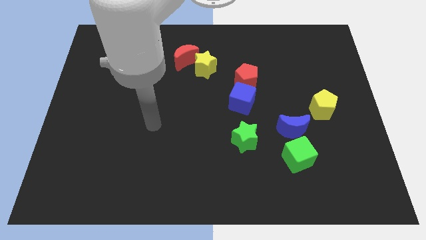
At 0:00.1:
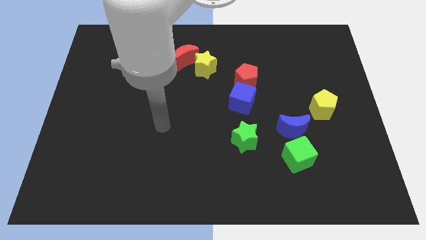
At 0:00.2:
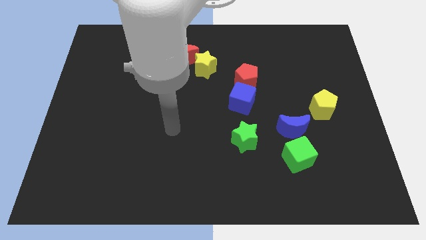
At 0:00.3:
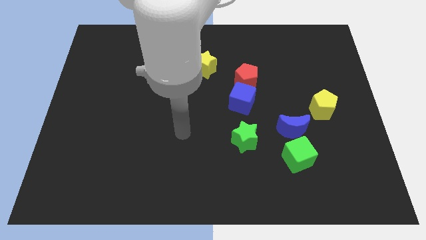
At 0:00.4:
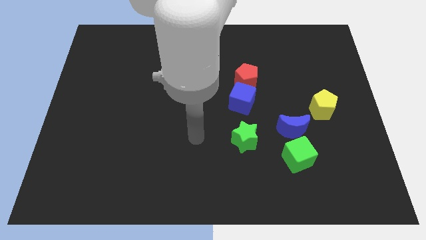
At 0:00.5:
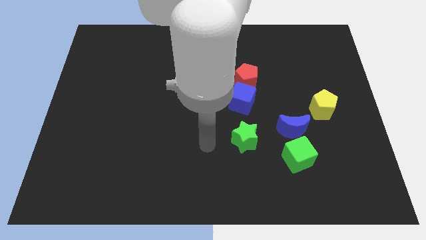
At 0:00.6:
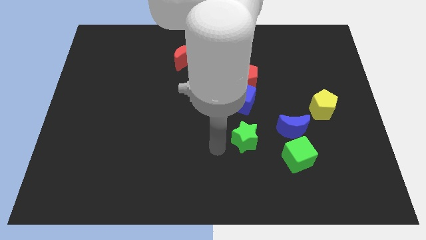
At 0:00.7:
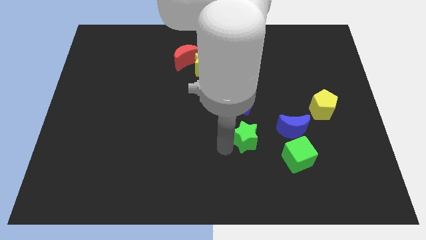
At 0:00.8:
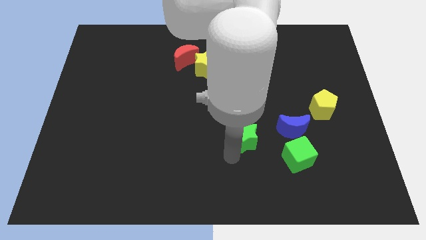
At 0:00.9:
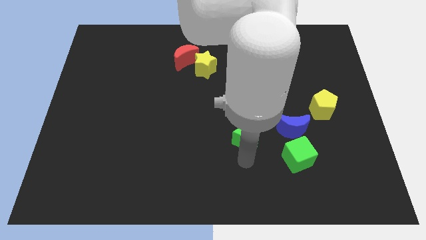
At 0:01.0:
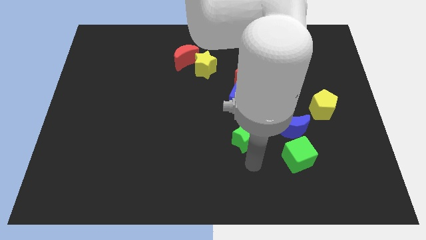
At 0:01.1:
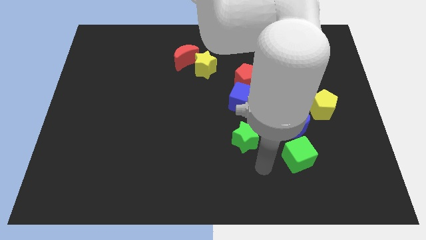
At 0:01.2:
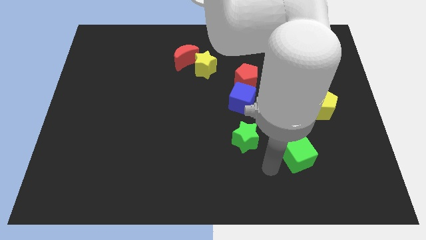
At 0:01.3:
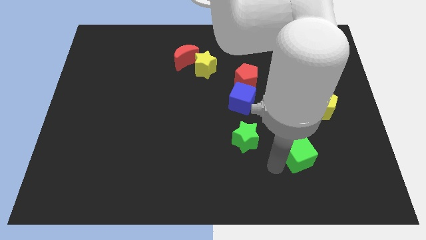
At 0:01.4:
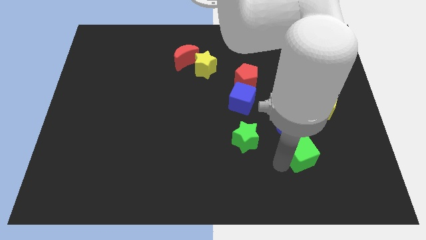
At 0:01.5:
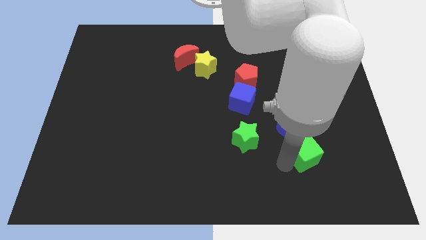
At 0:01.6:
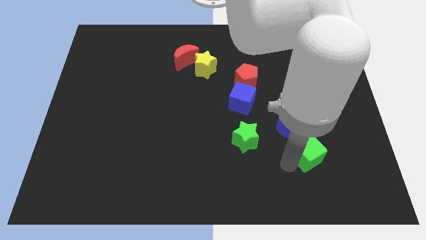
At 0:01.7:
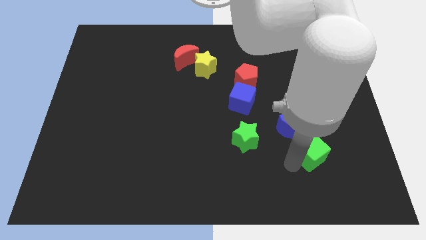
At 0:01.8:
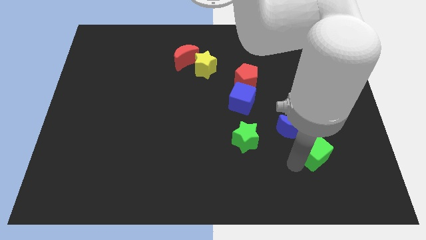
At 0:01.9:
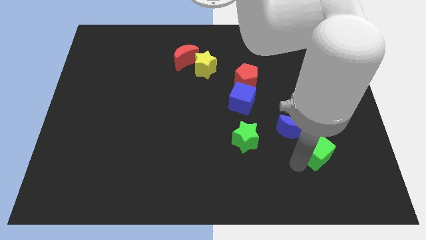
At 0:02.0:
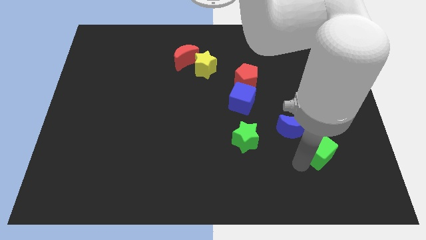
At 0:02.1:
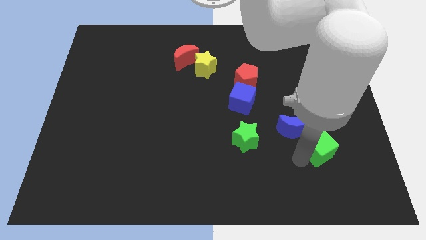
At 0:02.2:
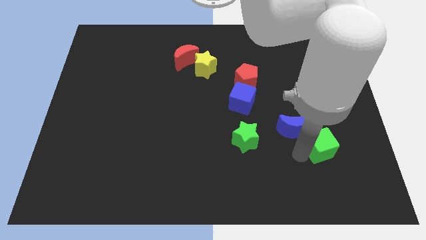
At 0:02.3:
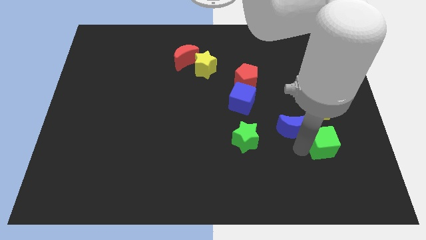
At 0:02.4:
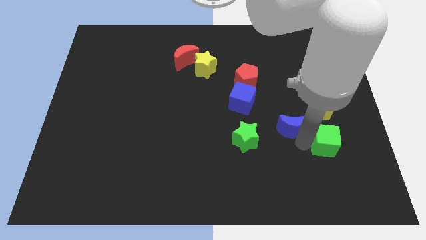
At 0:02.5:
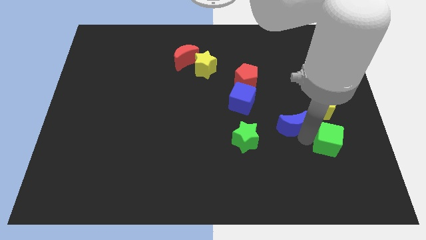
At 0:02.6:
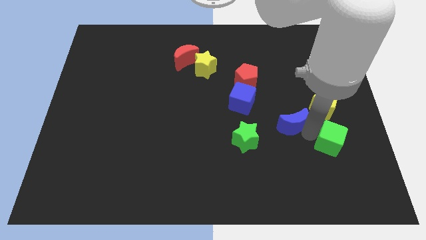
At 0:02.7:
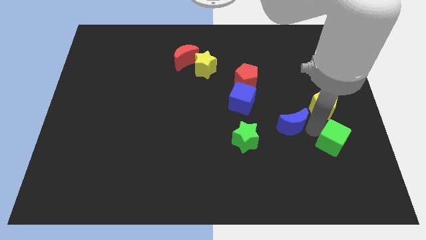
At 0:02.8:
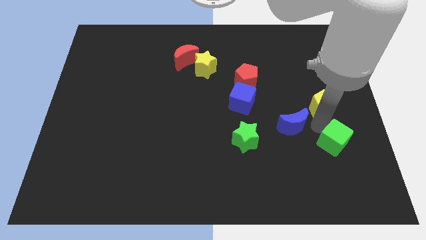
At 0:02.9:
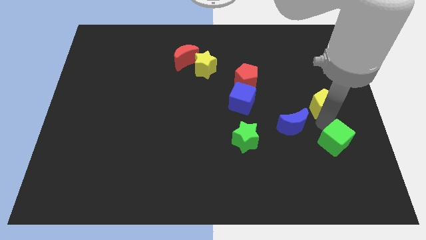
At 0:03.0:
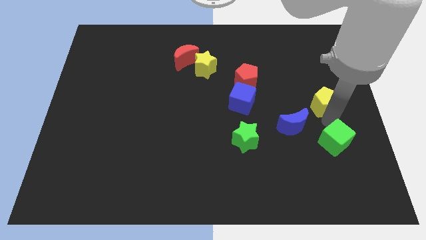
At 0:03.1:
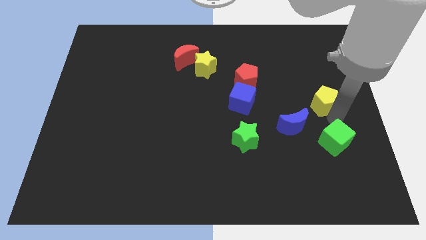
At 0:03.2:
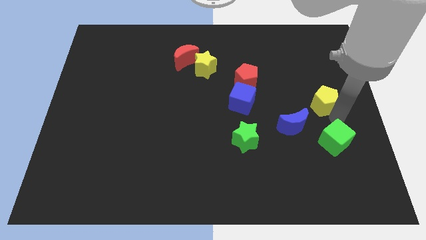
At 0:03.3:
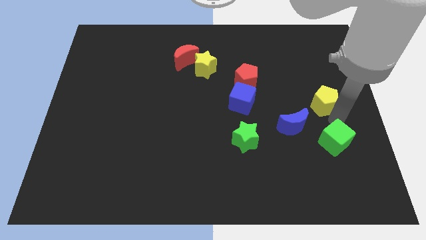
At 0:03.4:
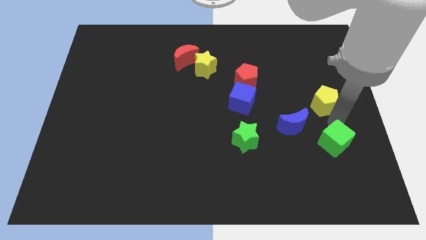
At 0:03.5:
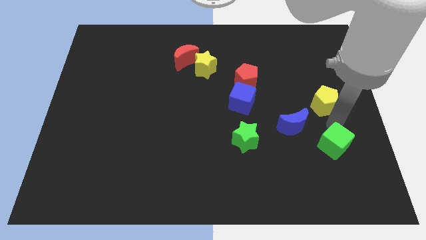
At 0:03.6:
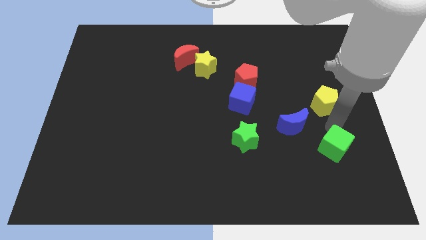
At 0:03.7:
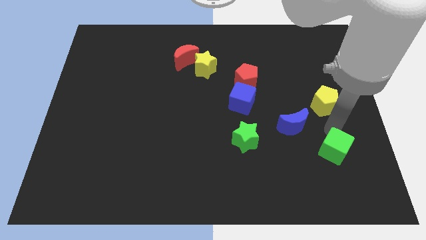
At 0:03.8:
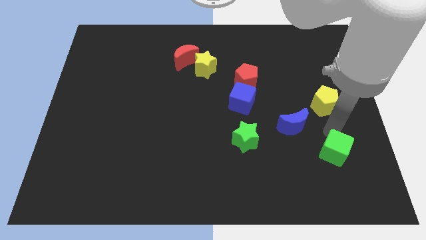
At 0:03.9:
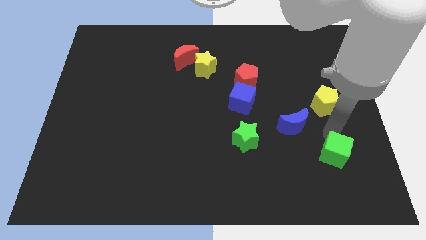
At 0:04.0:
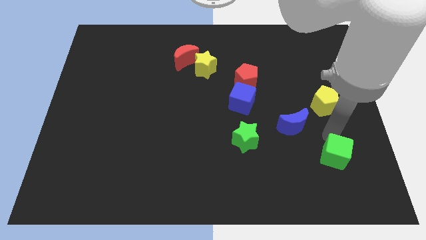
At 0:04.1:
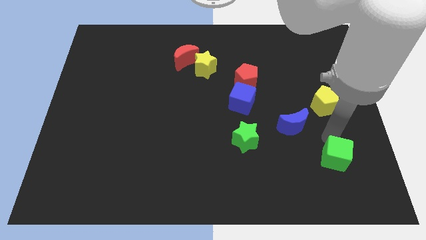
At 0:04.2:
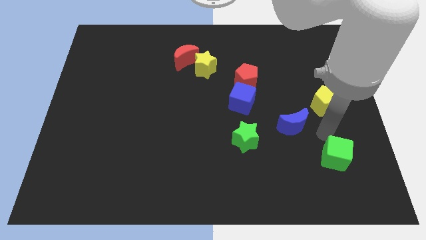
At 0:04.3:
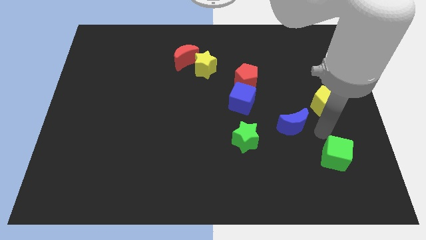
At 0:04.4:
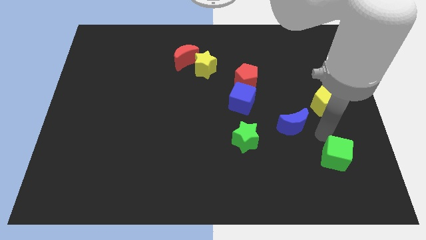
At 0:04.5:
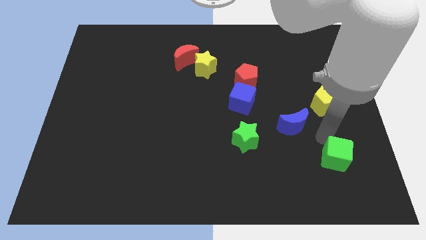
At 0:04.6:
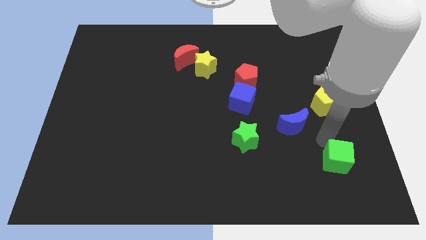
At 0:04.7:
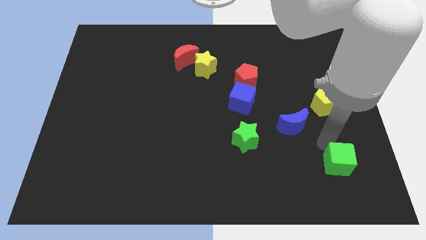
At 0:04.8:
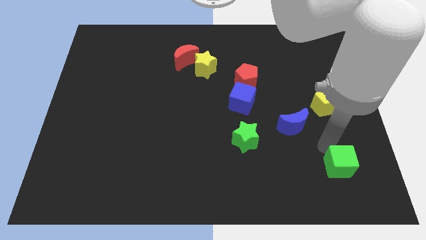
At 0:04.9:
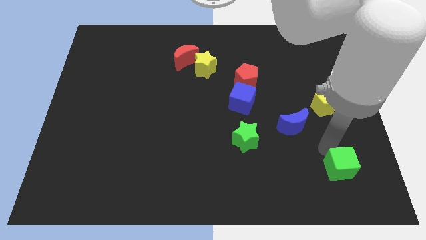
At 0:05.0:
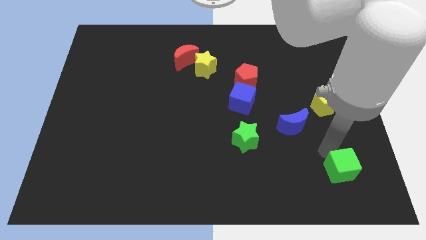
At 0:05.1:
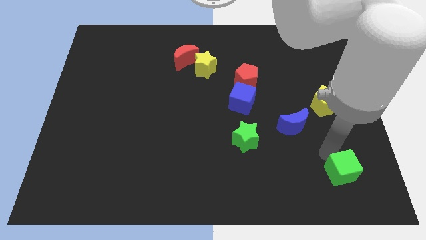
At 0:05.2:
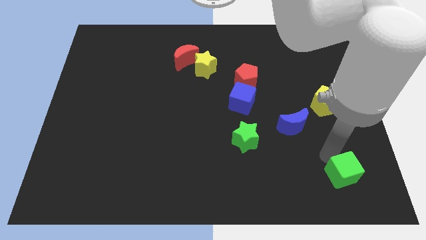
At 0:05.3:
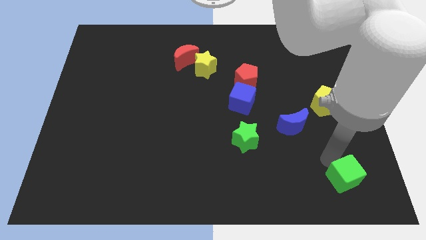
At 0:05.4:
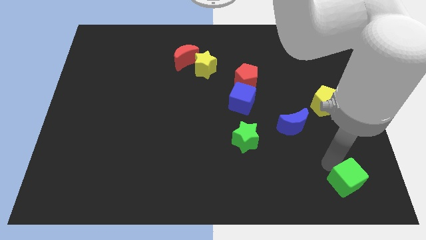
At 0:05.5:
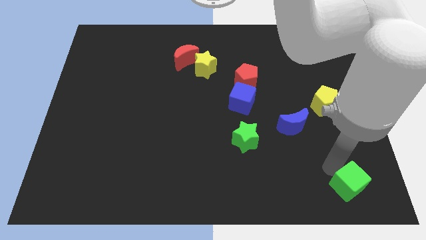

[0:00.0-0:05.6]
move the green cube to the lower right corner
